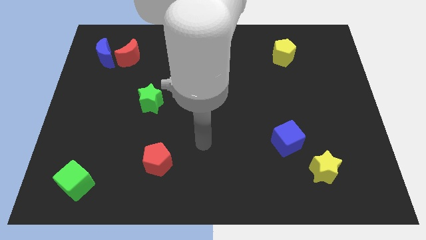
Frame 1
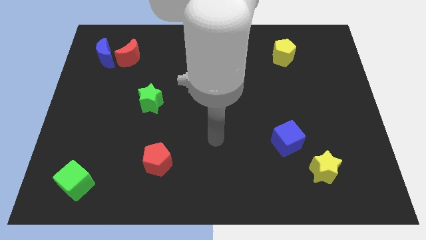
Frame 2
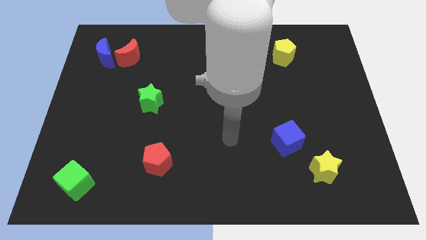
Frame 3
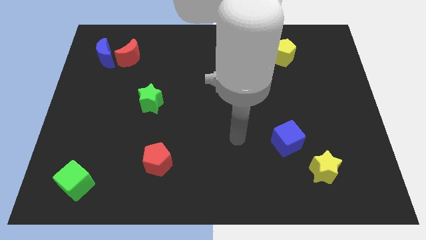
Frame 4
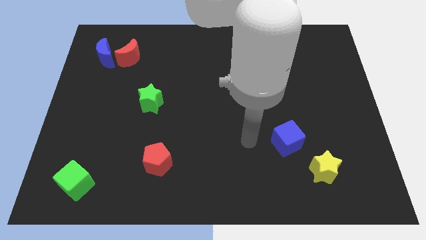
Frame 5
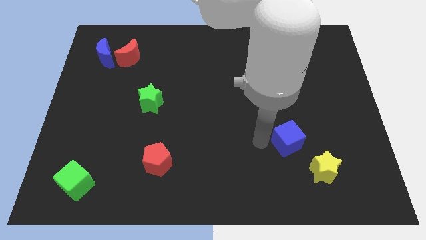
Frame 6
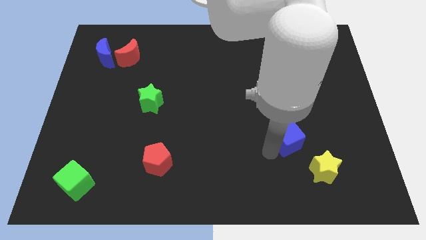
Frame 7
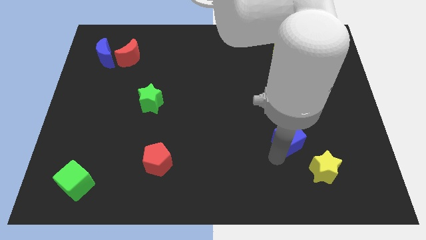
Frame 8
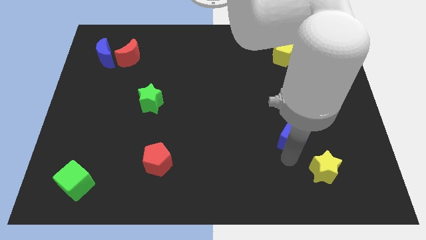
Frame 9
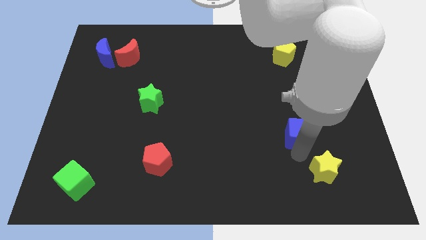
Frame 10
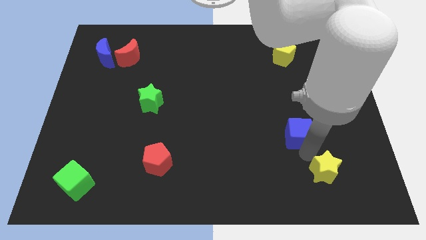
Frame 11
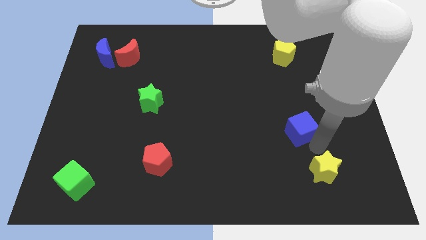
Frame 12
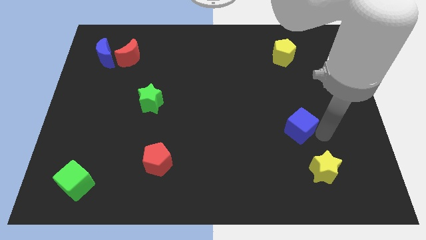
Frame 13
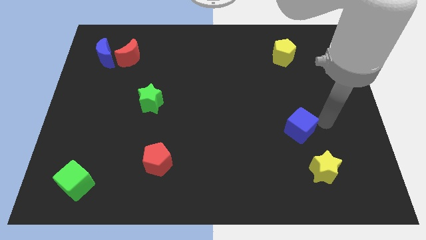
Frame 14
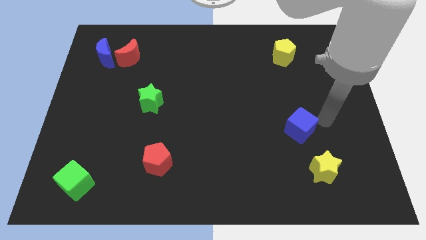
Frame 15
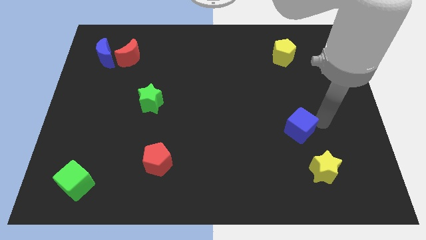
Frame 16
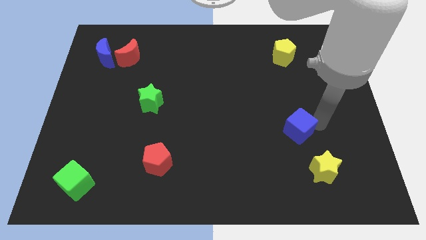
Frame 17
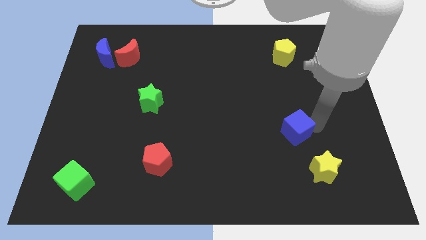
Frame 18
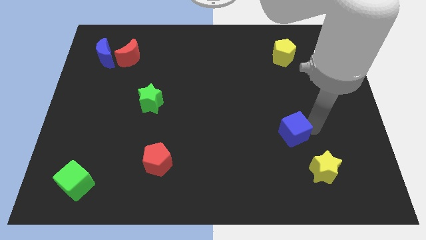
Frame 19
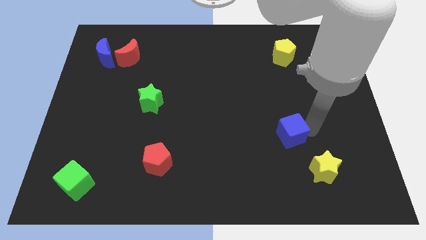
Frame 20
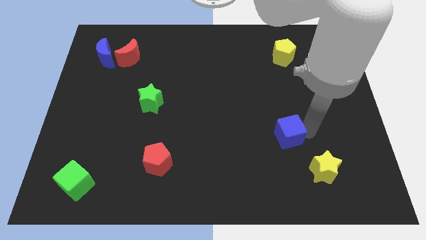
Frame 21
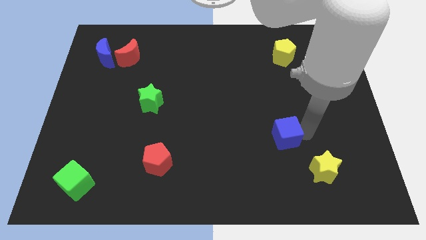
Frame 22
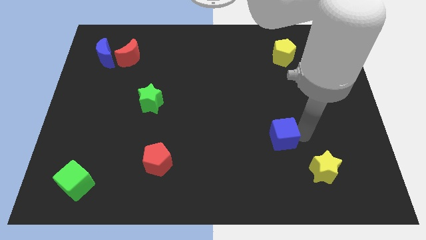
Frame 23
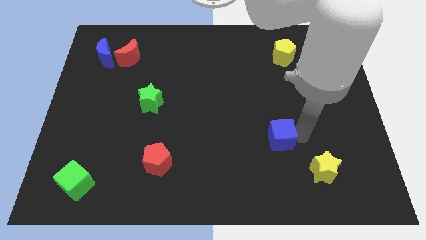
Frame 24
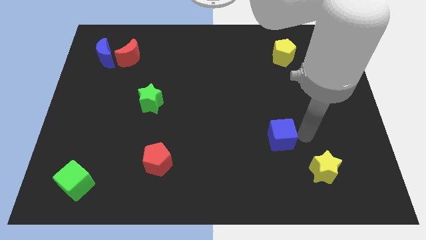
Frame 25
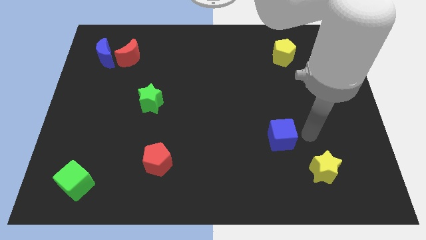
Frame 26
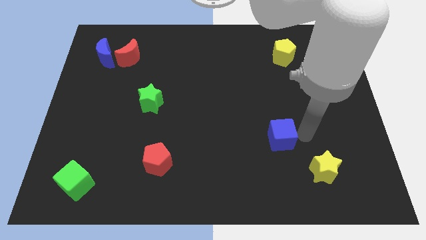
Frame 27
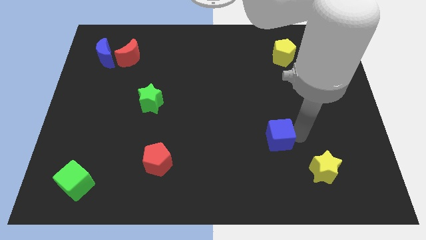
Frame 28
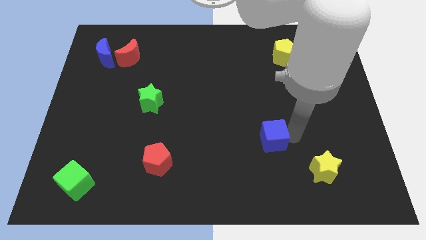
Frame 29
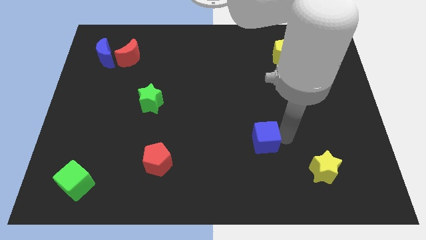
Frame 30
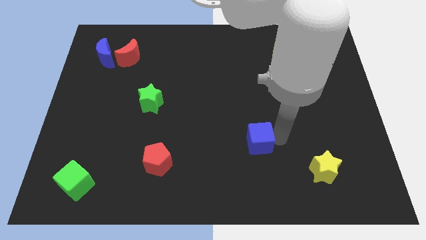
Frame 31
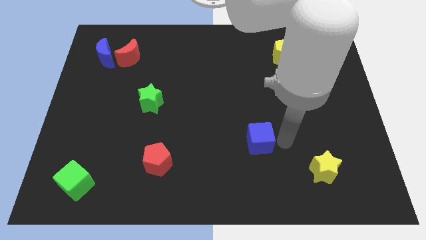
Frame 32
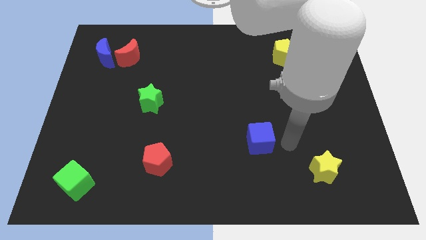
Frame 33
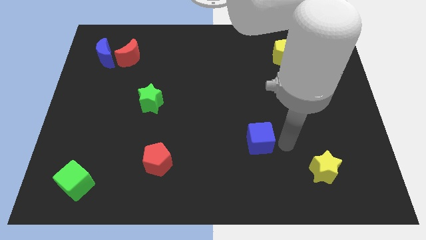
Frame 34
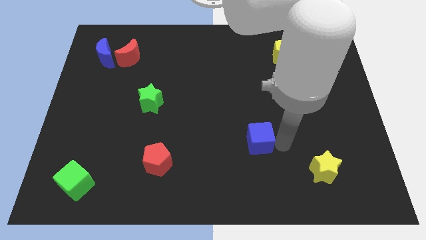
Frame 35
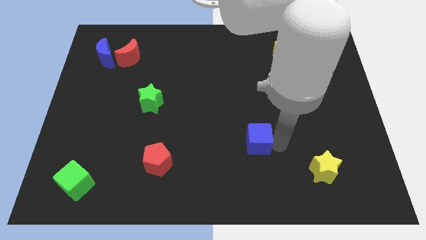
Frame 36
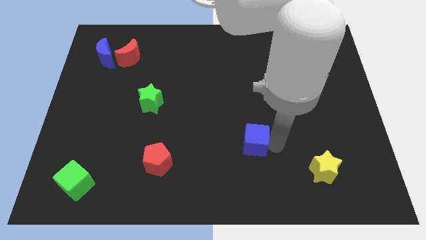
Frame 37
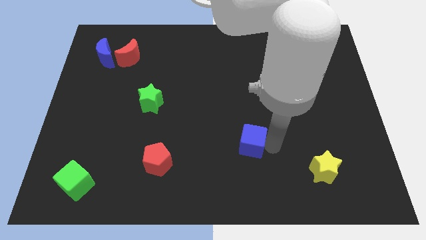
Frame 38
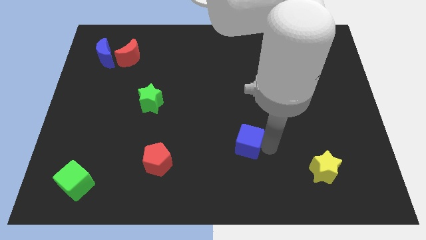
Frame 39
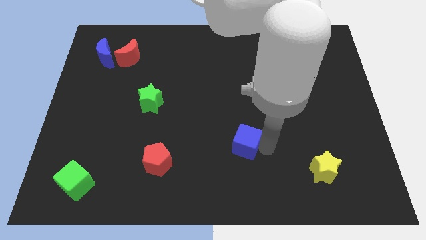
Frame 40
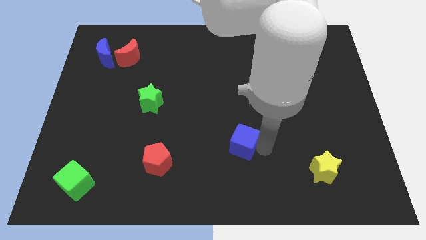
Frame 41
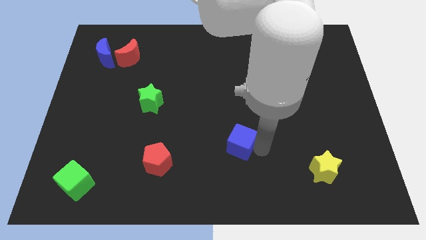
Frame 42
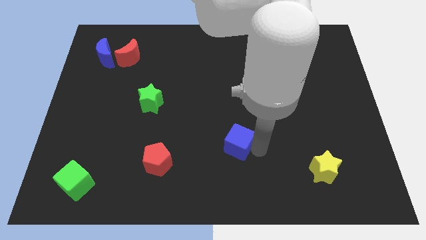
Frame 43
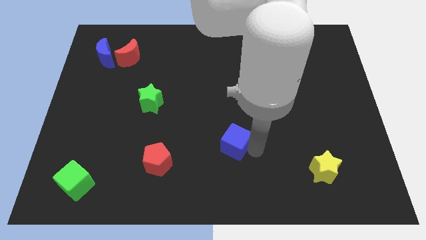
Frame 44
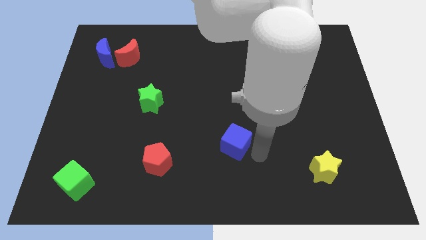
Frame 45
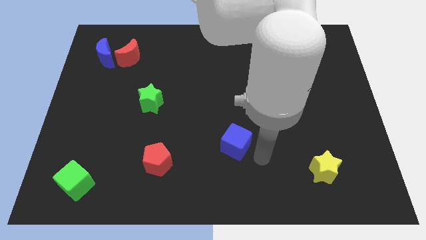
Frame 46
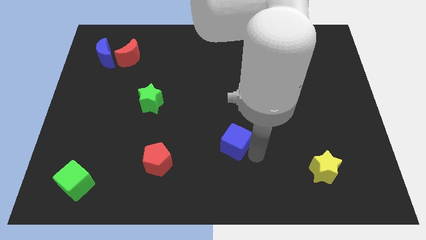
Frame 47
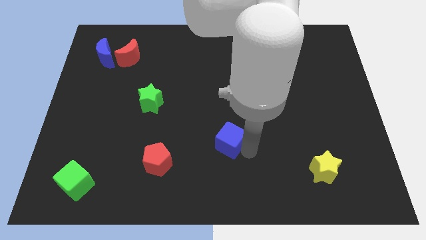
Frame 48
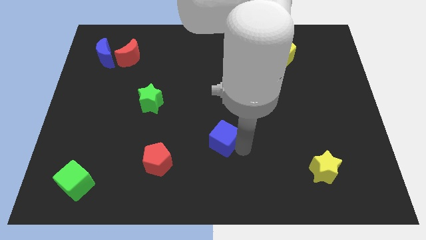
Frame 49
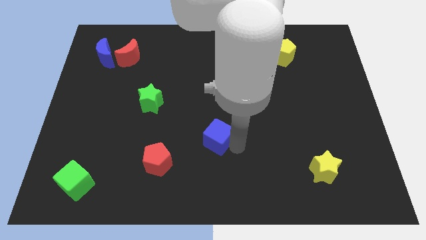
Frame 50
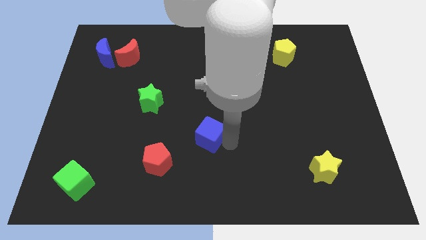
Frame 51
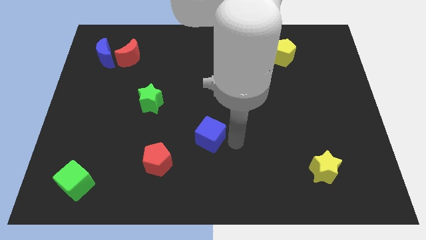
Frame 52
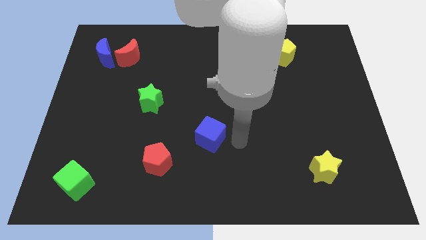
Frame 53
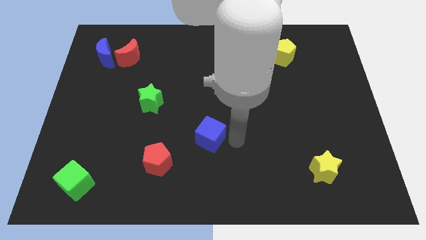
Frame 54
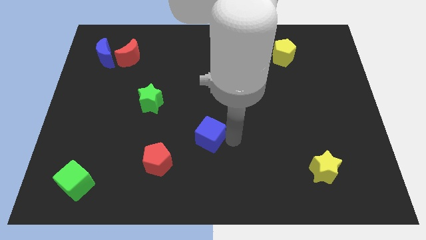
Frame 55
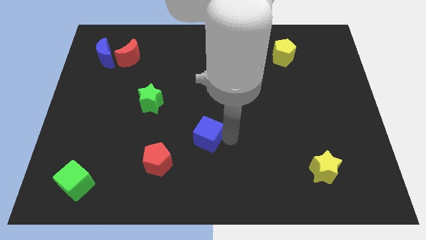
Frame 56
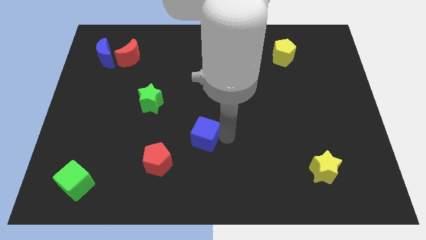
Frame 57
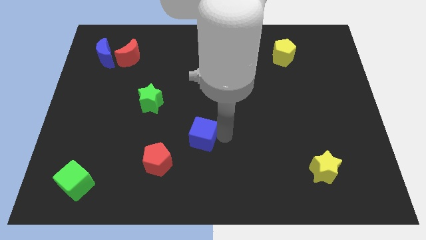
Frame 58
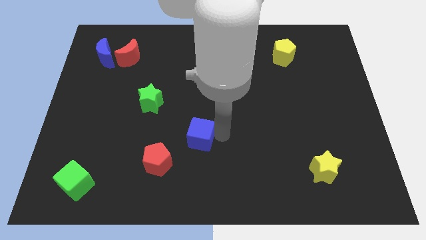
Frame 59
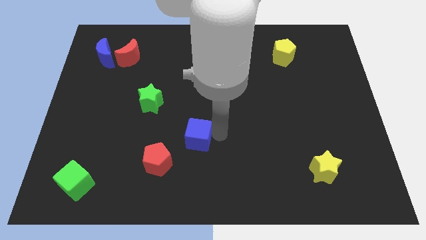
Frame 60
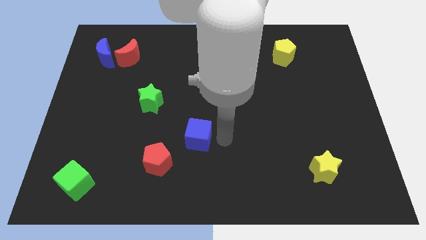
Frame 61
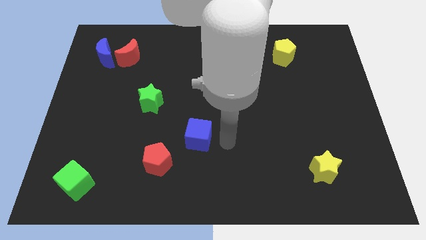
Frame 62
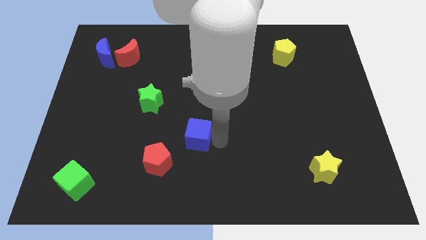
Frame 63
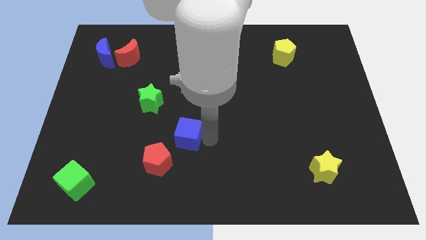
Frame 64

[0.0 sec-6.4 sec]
slide the blue cube left

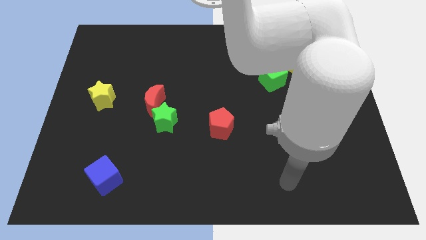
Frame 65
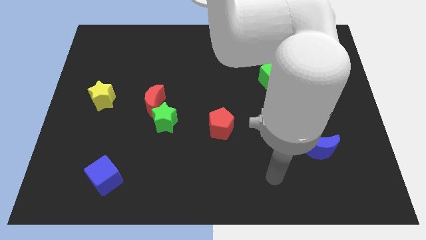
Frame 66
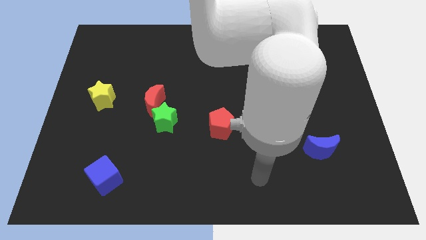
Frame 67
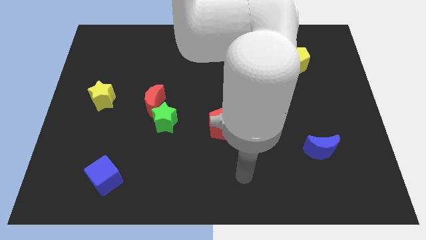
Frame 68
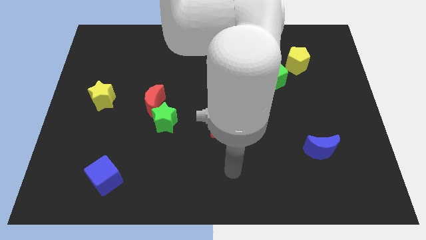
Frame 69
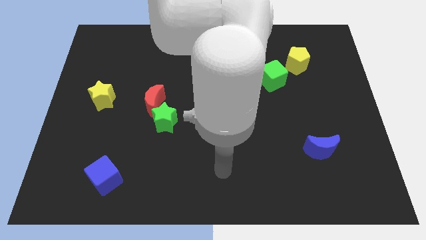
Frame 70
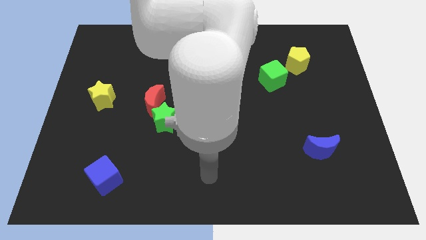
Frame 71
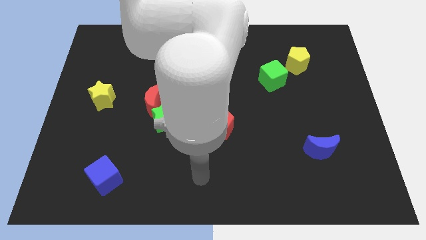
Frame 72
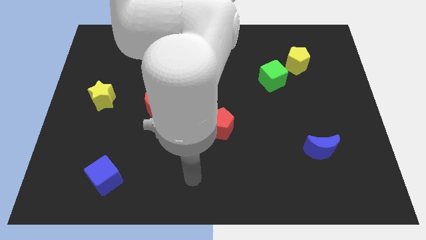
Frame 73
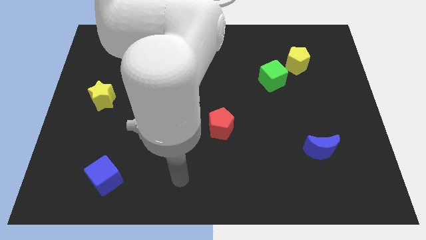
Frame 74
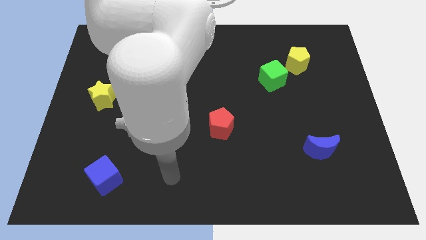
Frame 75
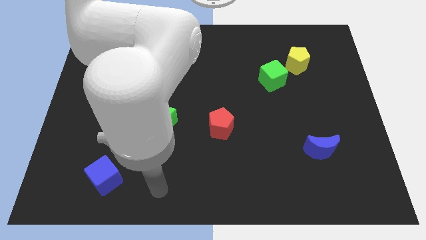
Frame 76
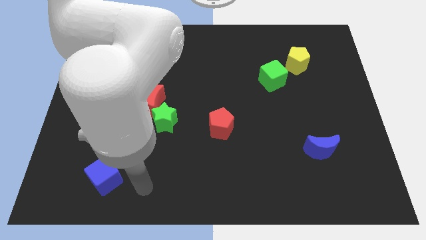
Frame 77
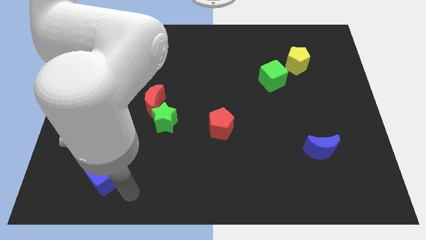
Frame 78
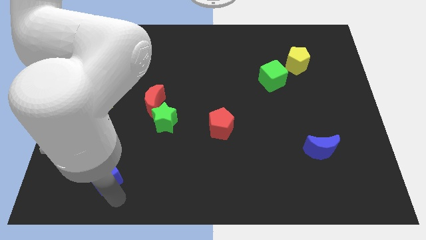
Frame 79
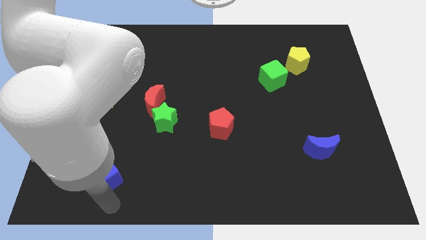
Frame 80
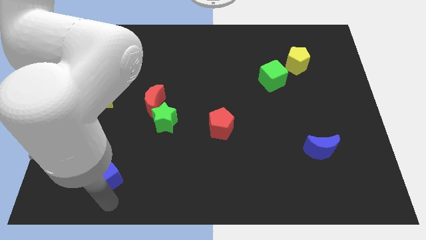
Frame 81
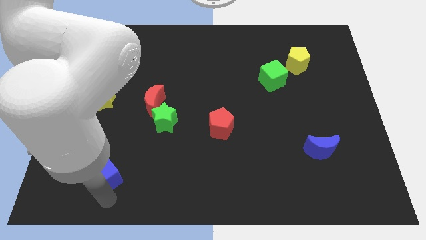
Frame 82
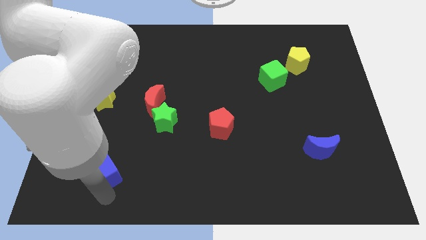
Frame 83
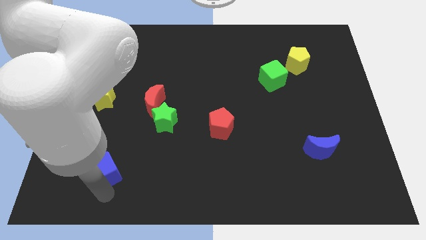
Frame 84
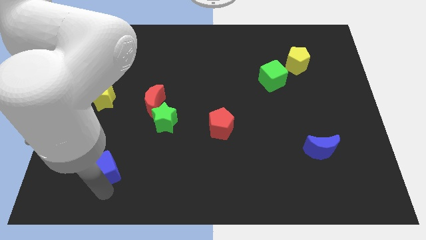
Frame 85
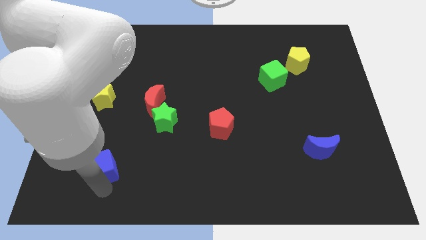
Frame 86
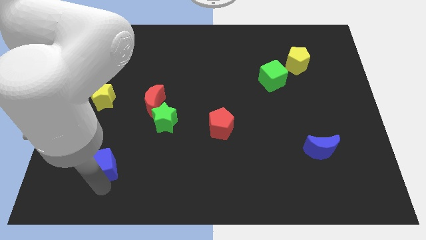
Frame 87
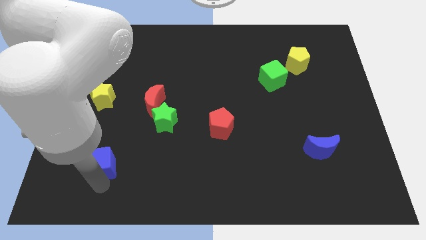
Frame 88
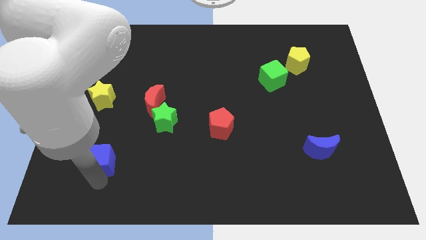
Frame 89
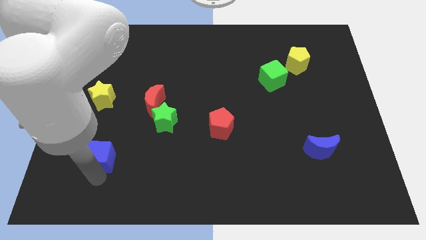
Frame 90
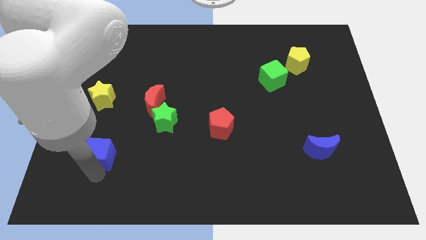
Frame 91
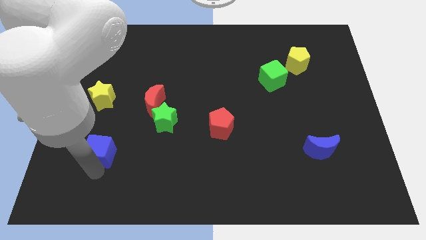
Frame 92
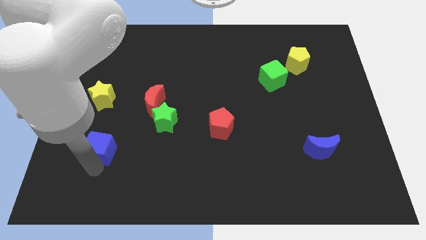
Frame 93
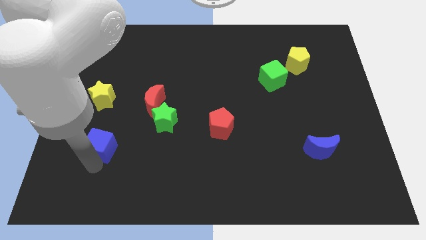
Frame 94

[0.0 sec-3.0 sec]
slide the blue cube up a little
